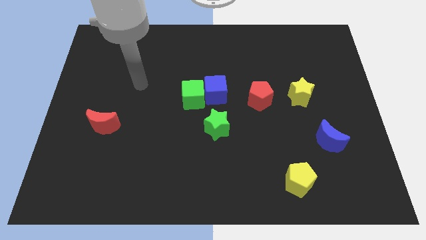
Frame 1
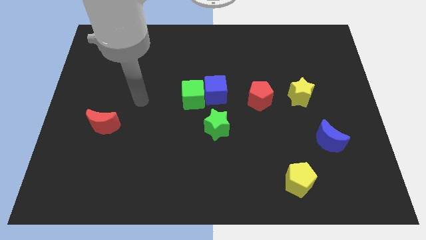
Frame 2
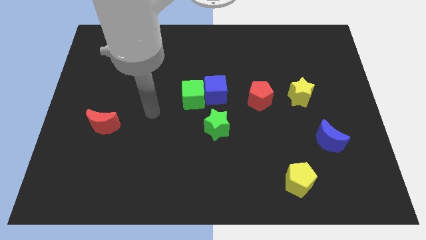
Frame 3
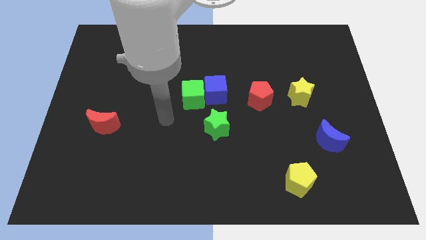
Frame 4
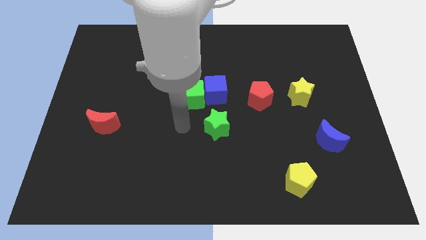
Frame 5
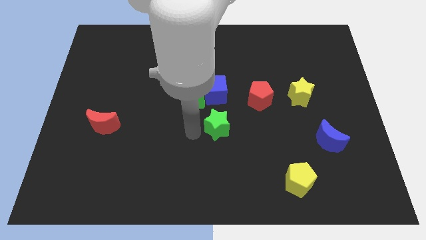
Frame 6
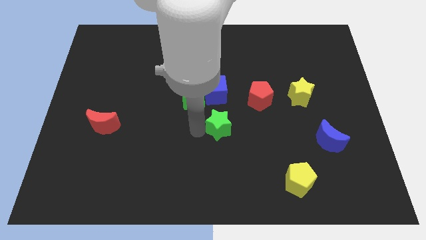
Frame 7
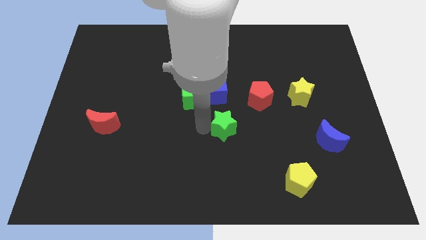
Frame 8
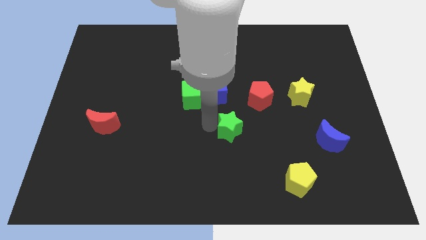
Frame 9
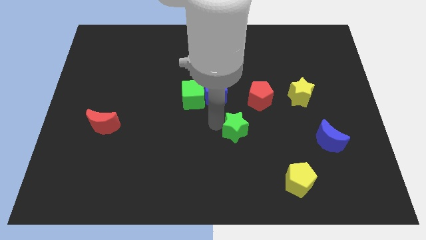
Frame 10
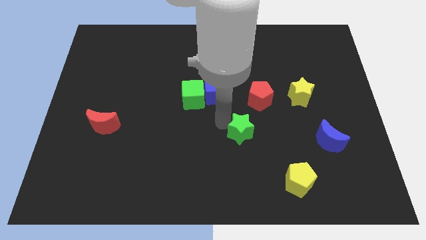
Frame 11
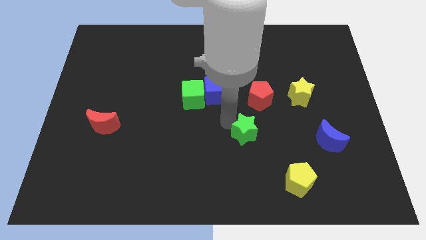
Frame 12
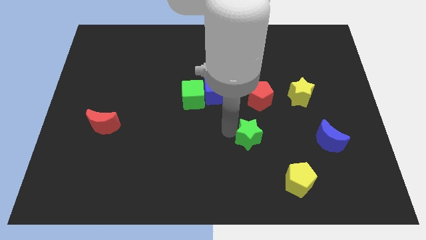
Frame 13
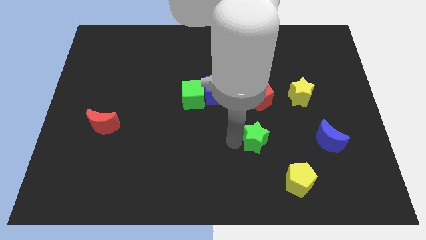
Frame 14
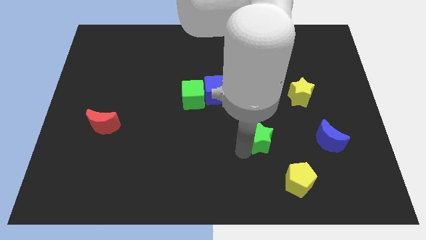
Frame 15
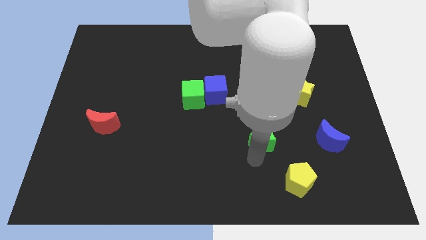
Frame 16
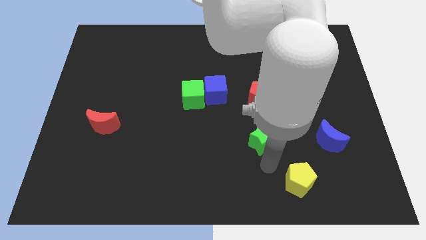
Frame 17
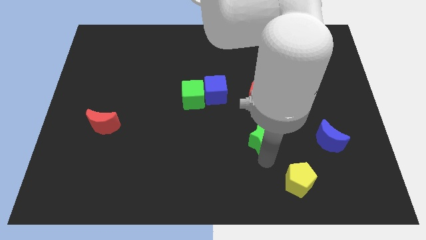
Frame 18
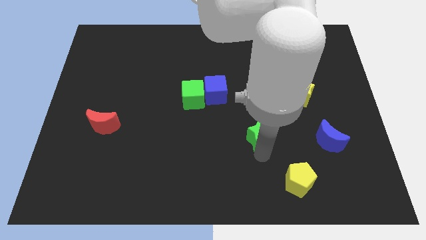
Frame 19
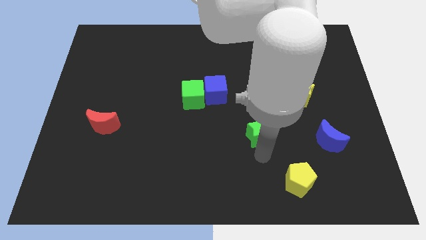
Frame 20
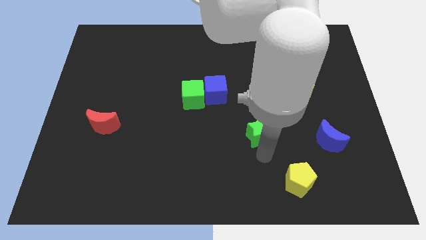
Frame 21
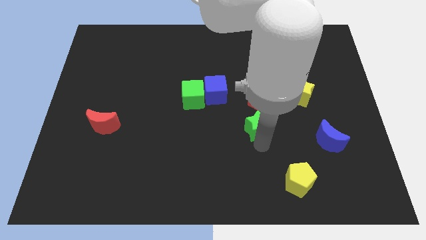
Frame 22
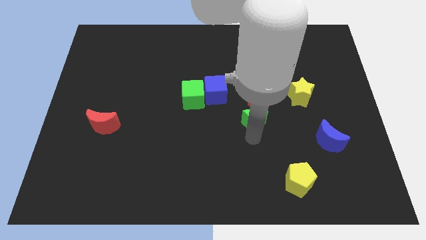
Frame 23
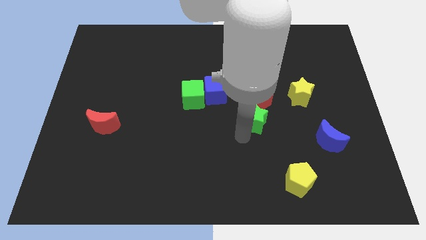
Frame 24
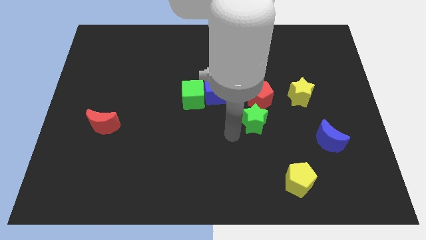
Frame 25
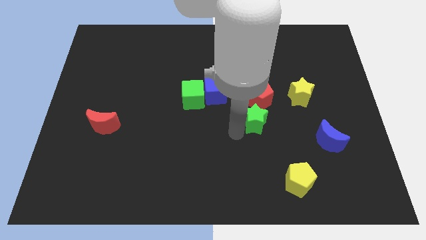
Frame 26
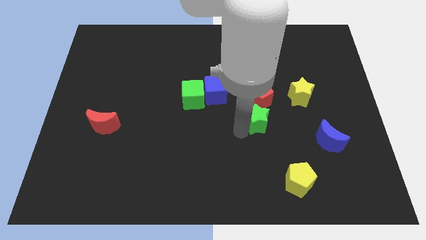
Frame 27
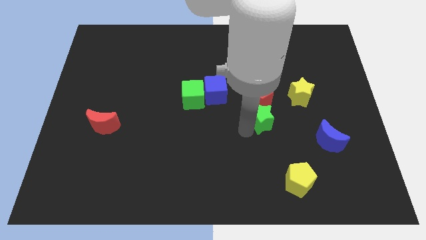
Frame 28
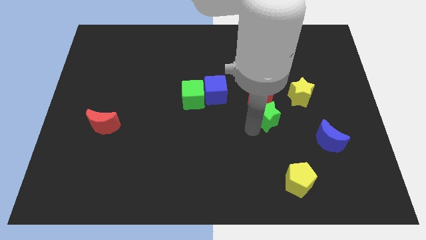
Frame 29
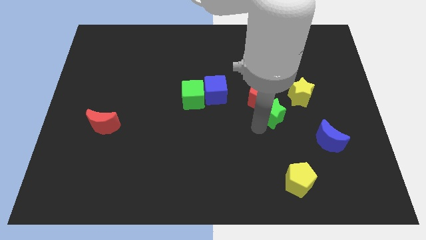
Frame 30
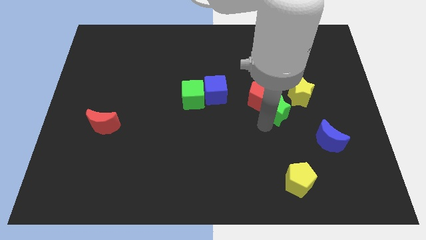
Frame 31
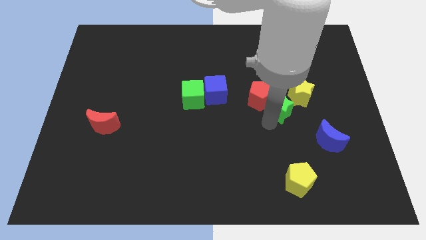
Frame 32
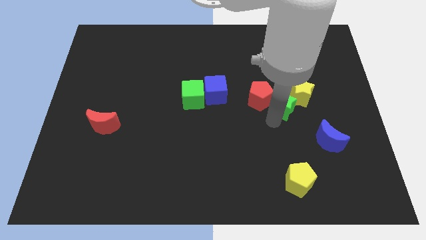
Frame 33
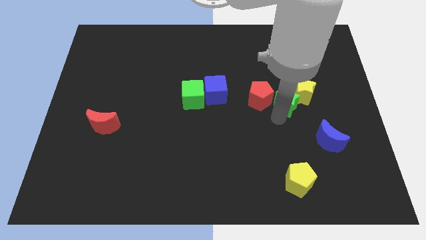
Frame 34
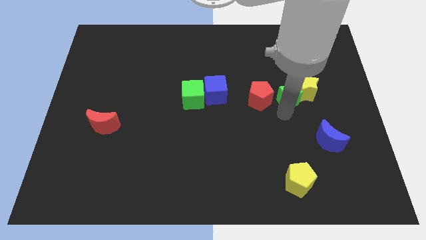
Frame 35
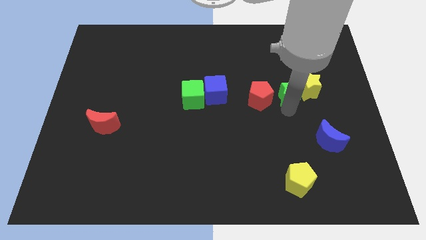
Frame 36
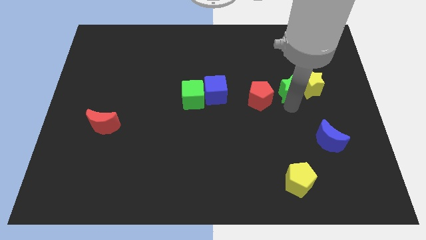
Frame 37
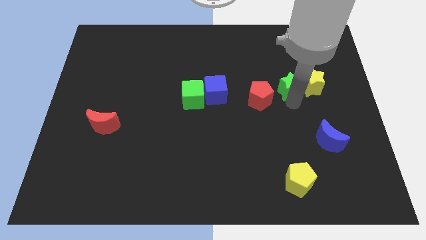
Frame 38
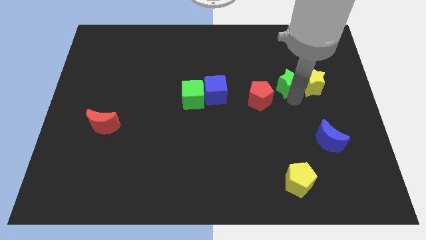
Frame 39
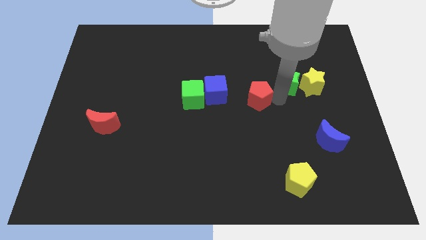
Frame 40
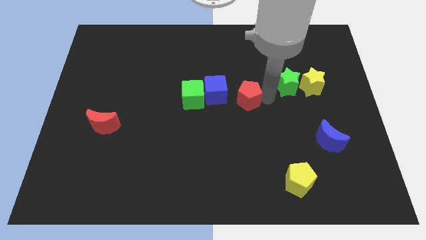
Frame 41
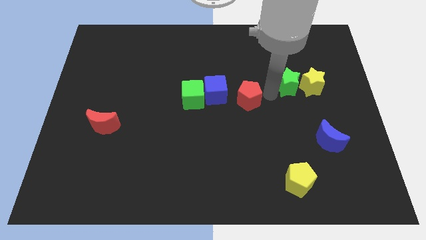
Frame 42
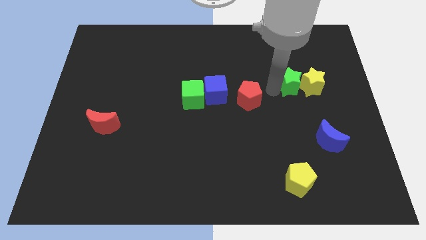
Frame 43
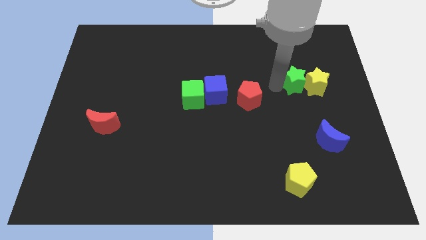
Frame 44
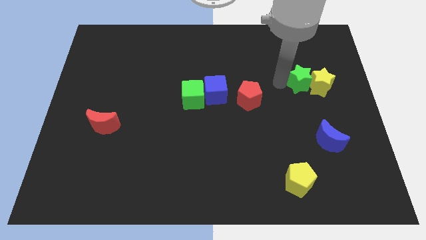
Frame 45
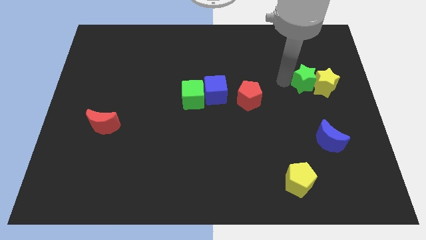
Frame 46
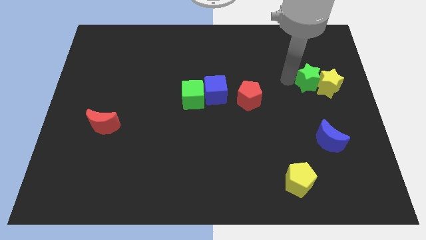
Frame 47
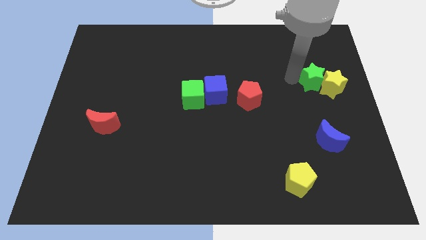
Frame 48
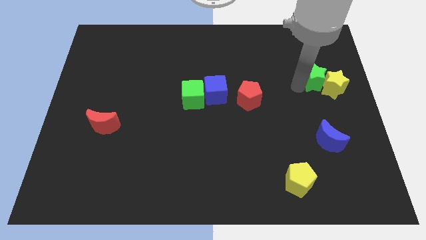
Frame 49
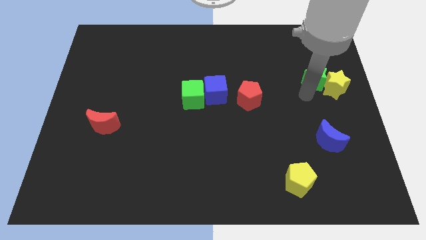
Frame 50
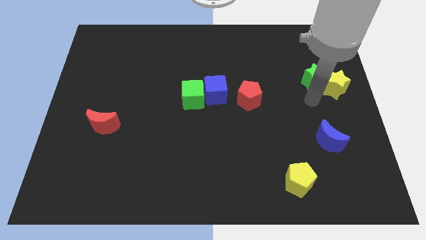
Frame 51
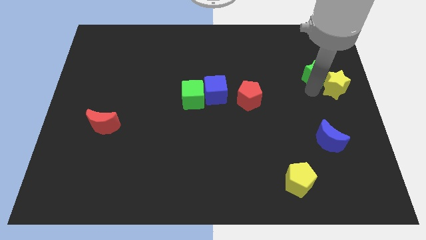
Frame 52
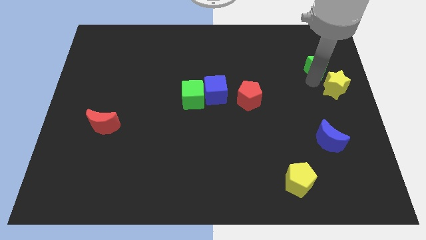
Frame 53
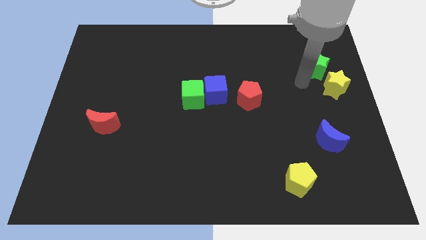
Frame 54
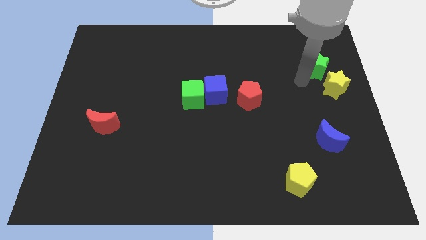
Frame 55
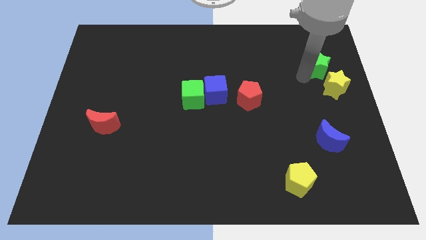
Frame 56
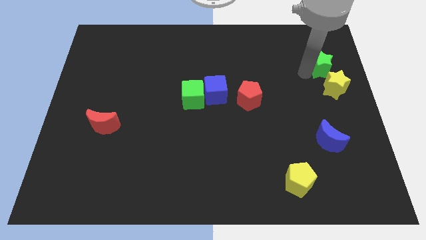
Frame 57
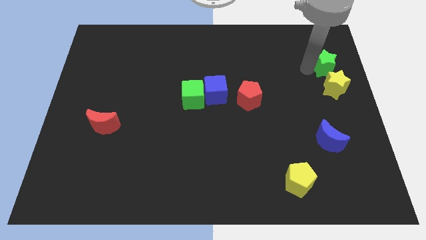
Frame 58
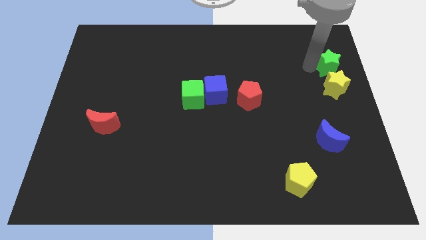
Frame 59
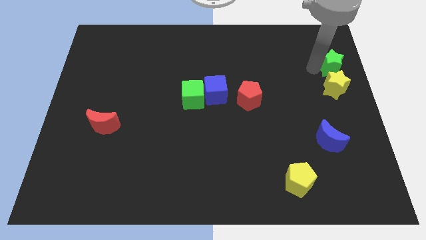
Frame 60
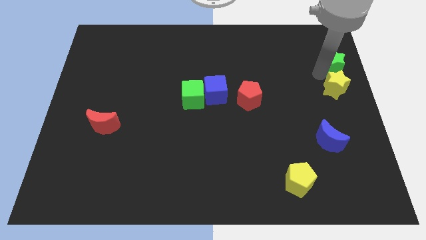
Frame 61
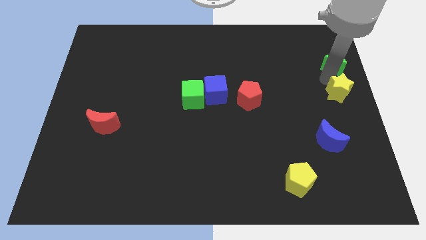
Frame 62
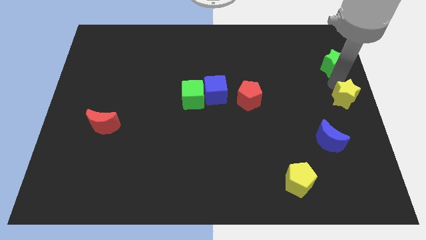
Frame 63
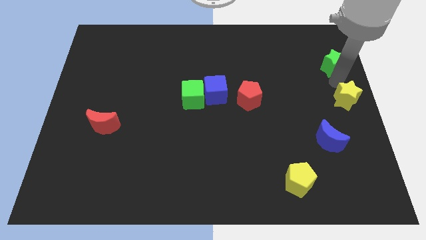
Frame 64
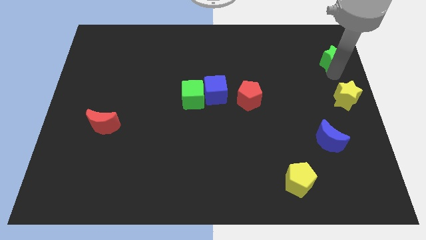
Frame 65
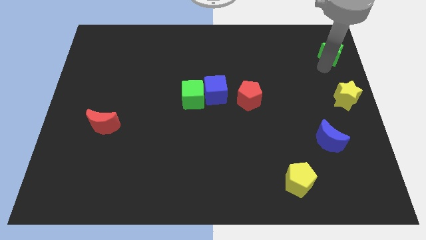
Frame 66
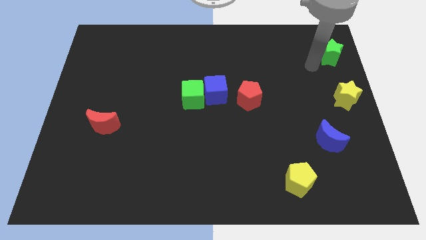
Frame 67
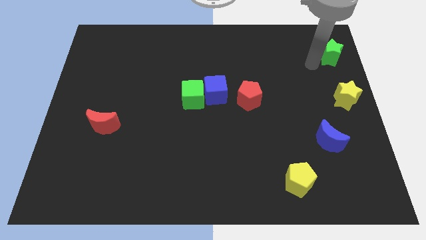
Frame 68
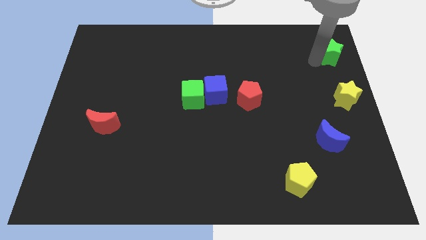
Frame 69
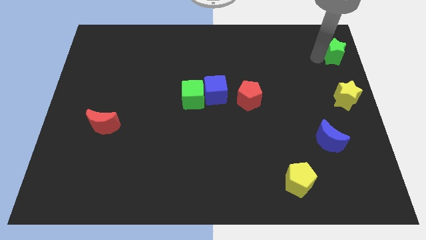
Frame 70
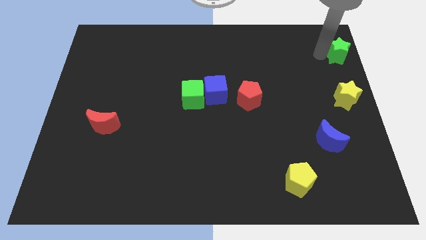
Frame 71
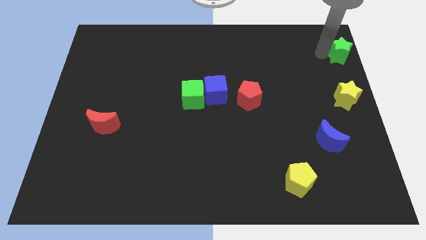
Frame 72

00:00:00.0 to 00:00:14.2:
slide the green star to the top right corner
